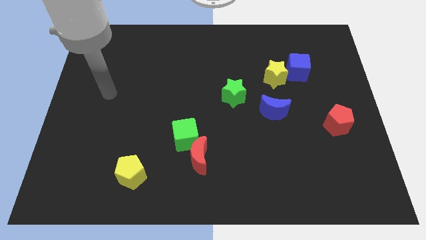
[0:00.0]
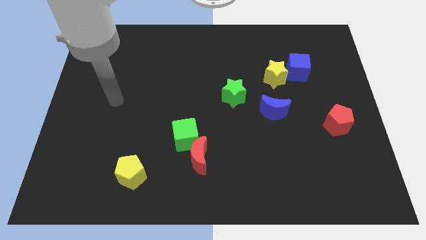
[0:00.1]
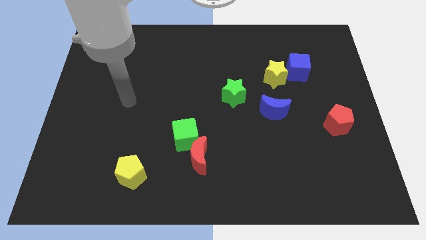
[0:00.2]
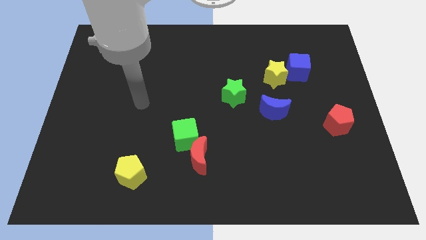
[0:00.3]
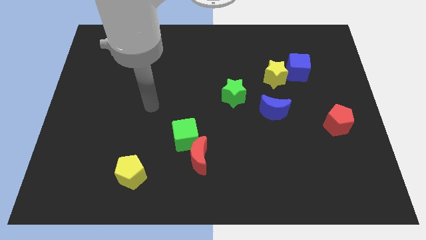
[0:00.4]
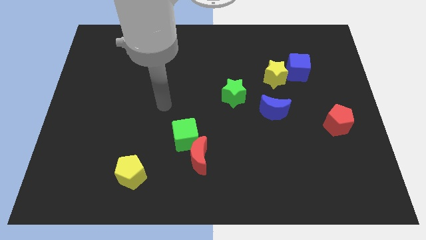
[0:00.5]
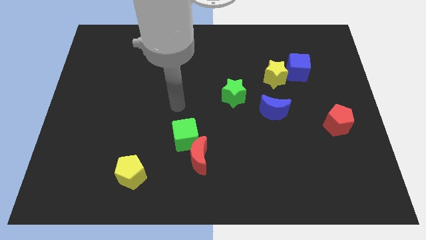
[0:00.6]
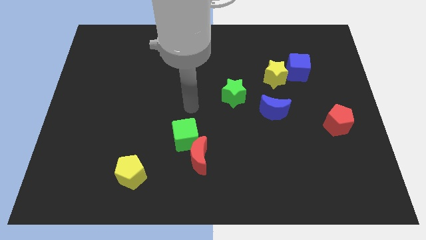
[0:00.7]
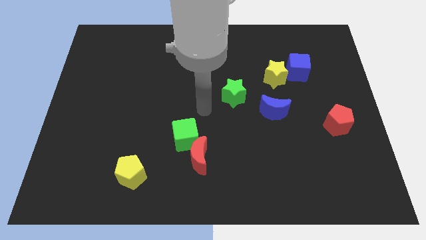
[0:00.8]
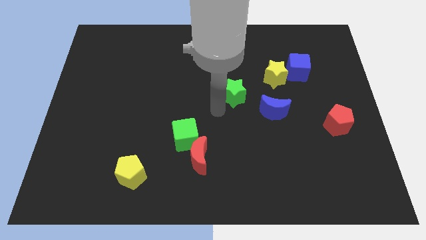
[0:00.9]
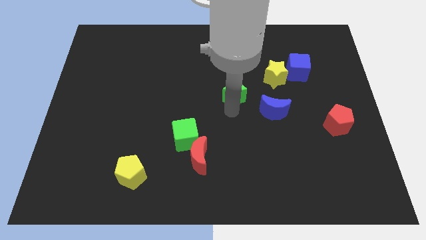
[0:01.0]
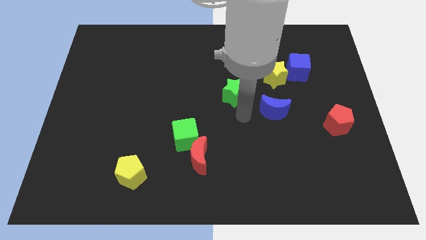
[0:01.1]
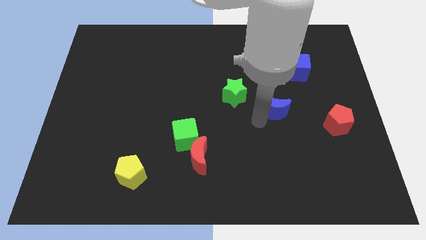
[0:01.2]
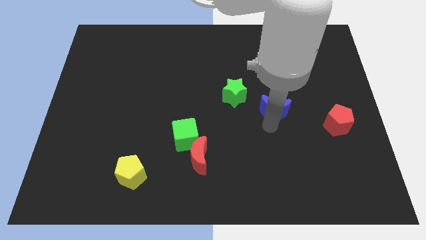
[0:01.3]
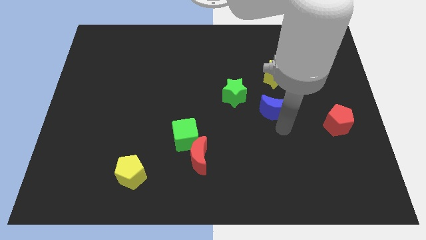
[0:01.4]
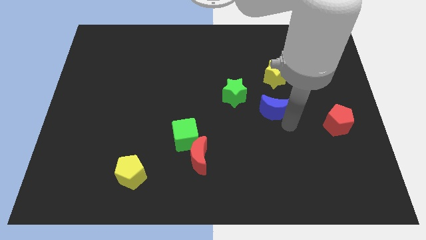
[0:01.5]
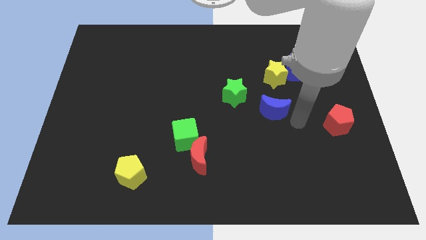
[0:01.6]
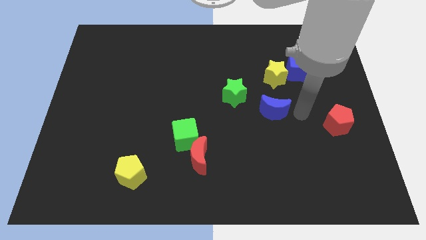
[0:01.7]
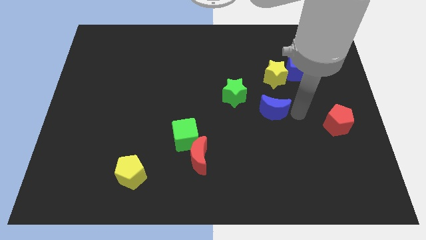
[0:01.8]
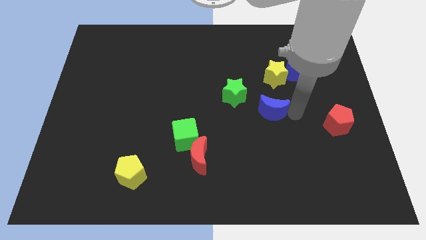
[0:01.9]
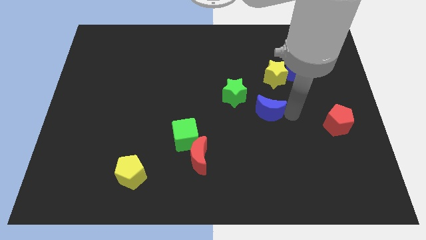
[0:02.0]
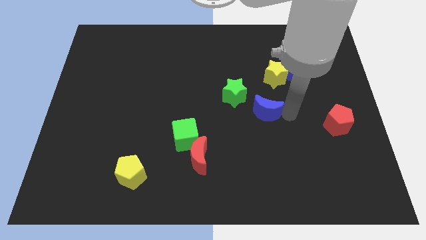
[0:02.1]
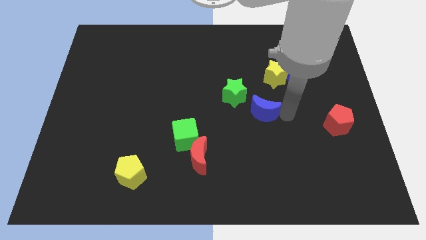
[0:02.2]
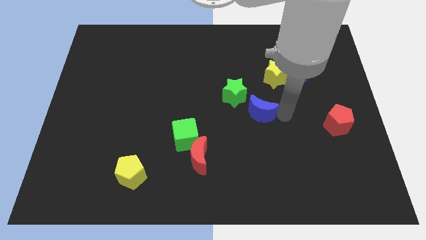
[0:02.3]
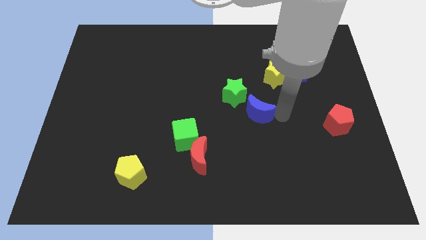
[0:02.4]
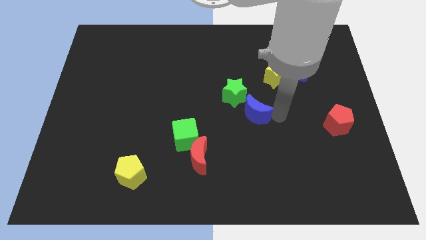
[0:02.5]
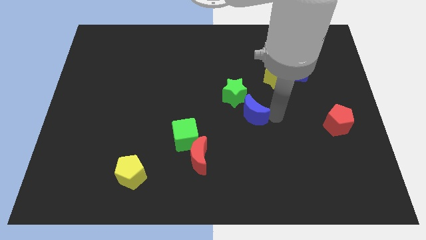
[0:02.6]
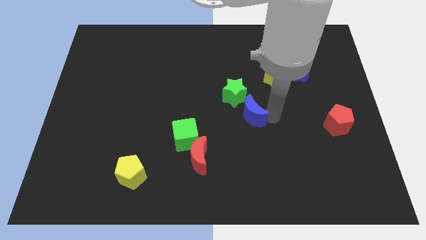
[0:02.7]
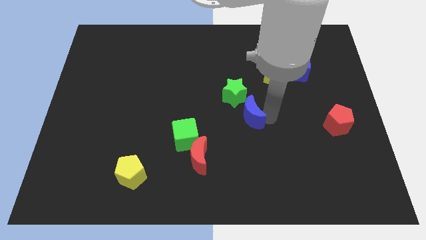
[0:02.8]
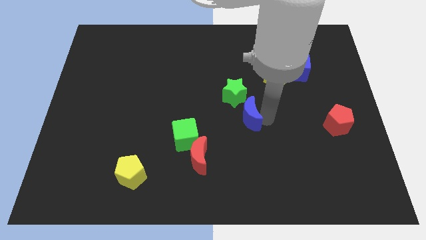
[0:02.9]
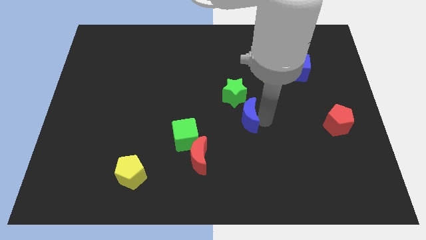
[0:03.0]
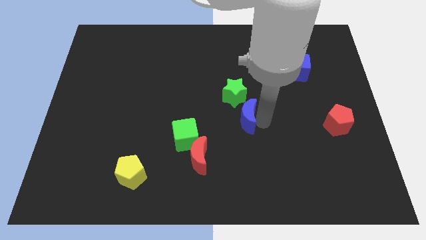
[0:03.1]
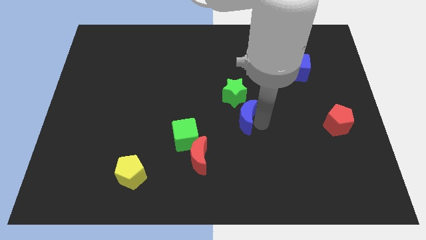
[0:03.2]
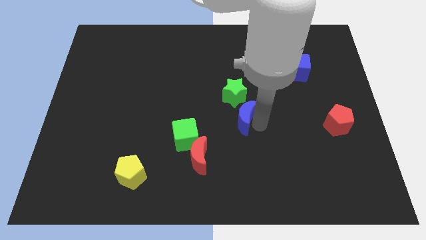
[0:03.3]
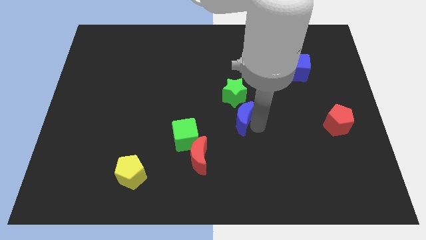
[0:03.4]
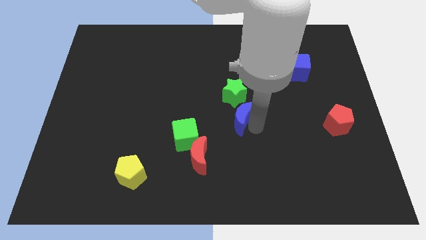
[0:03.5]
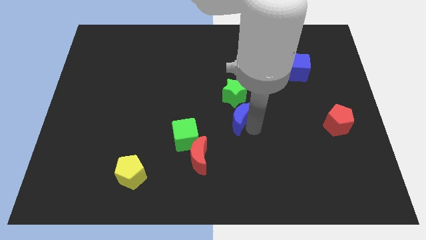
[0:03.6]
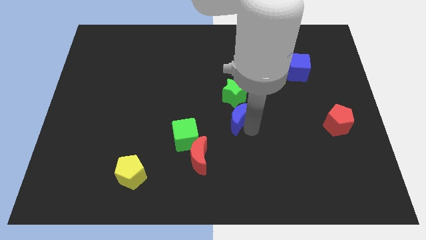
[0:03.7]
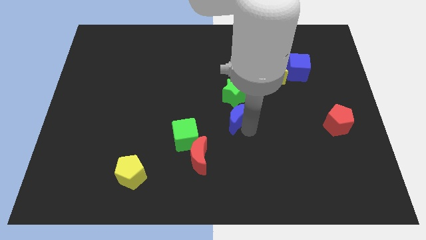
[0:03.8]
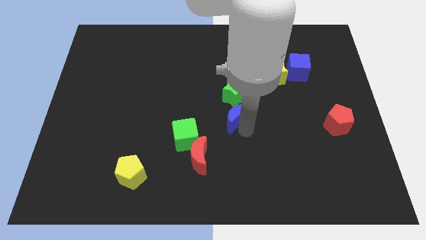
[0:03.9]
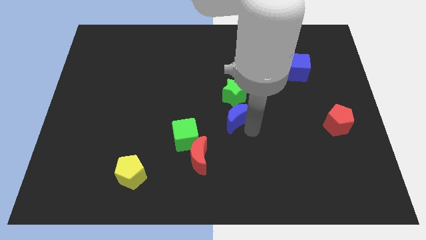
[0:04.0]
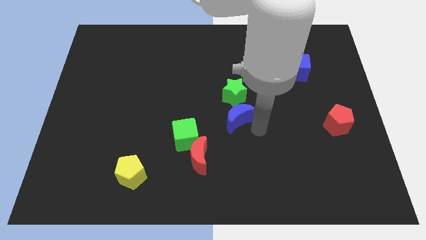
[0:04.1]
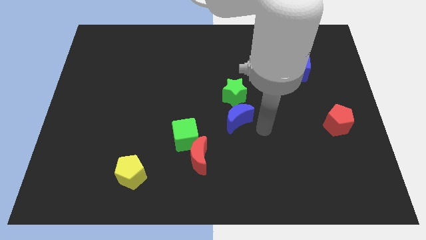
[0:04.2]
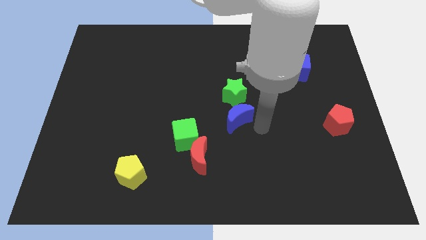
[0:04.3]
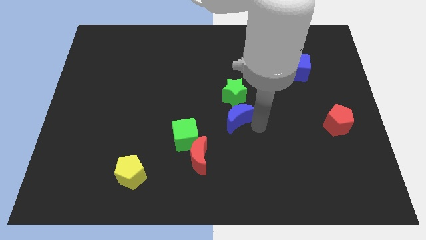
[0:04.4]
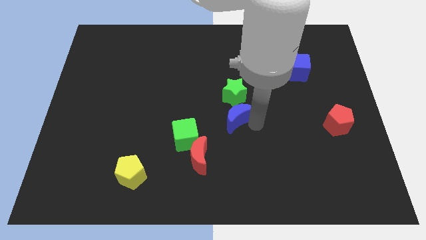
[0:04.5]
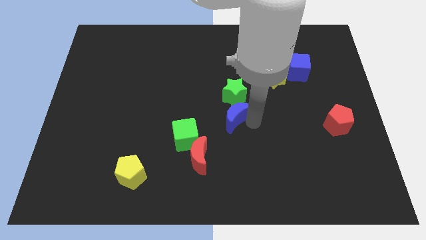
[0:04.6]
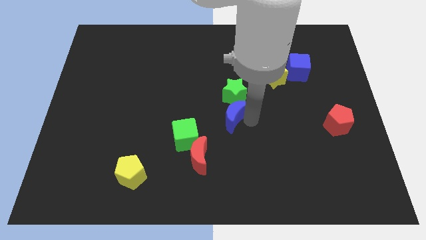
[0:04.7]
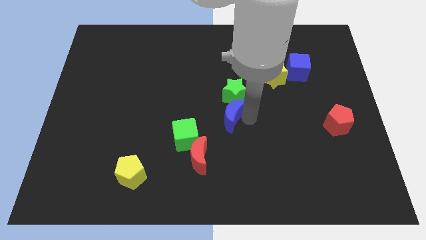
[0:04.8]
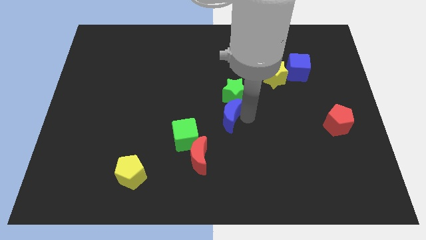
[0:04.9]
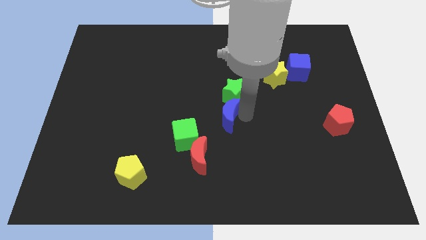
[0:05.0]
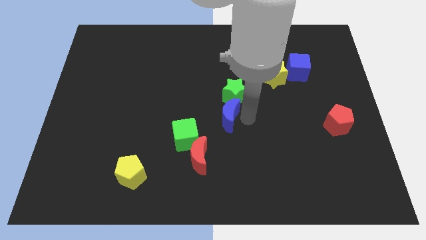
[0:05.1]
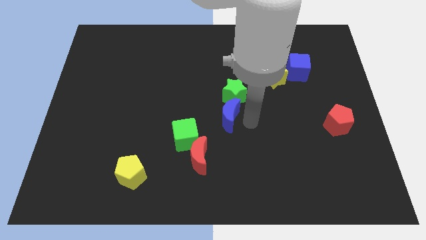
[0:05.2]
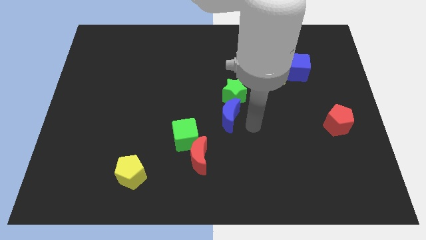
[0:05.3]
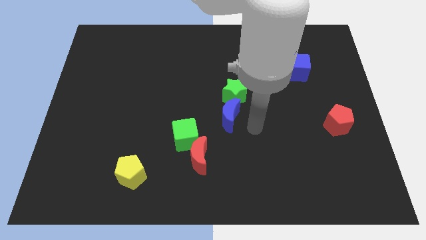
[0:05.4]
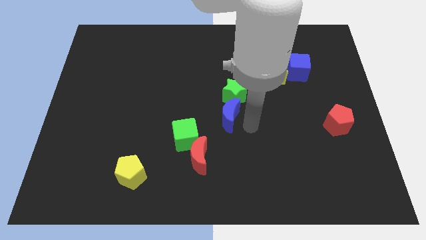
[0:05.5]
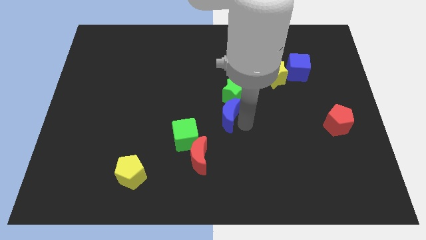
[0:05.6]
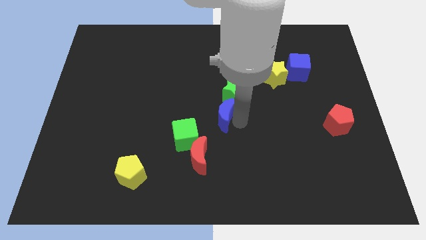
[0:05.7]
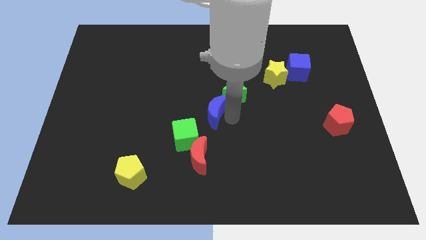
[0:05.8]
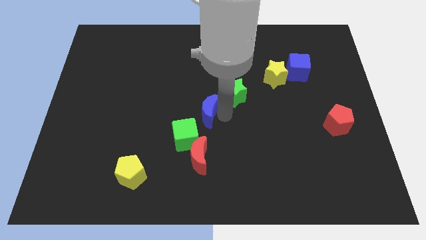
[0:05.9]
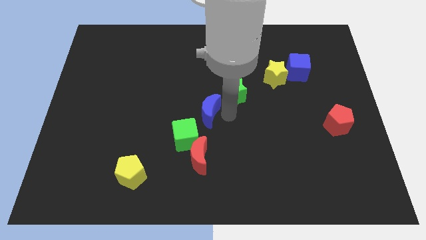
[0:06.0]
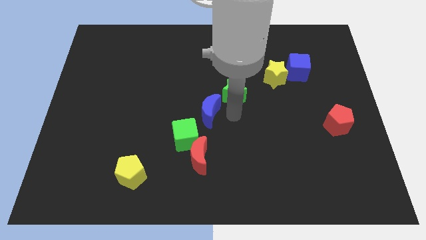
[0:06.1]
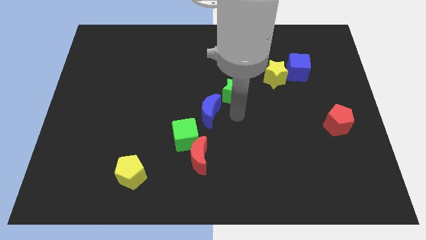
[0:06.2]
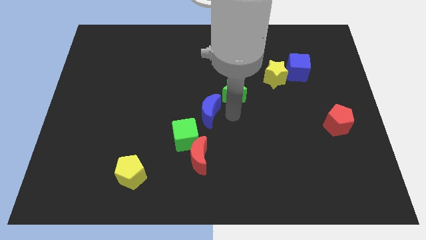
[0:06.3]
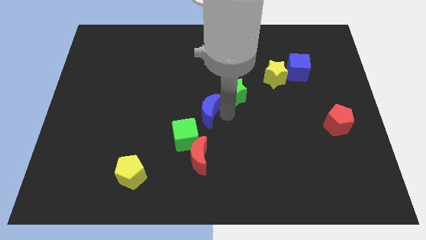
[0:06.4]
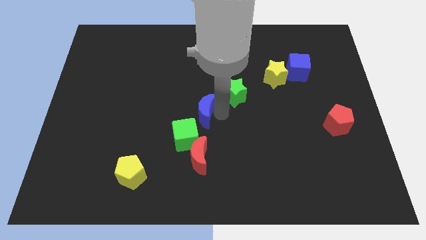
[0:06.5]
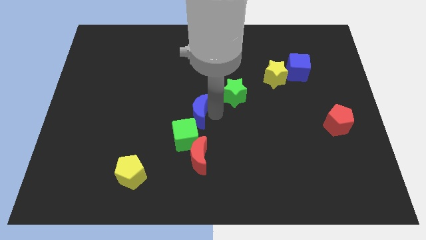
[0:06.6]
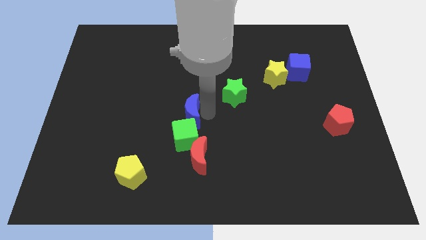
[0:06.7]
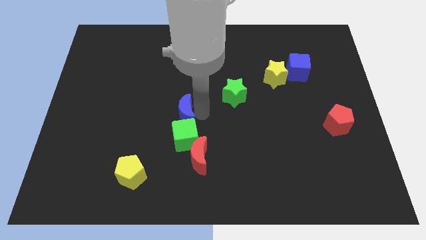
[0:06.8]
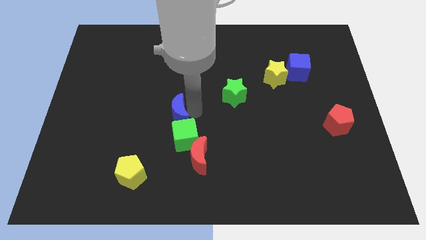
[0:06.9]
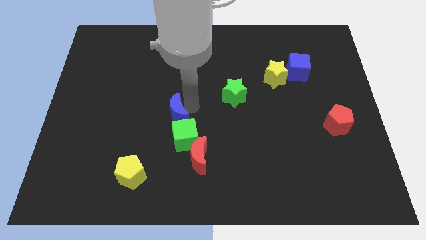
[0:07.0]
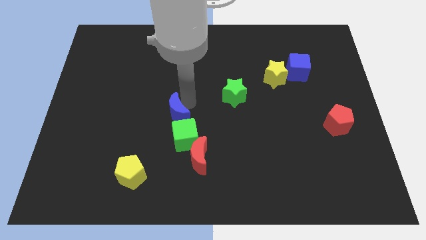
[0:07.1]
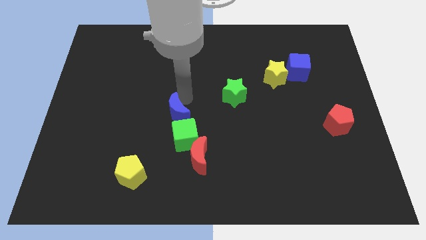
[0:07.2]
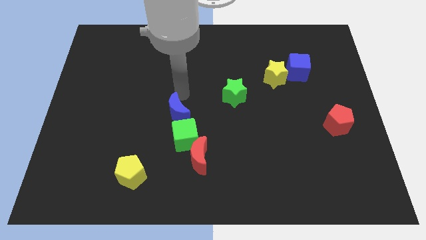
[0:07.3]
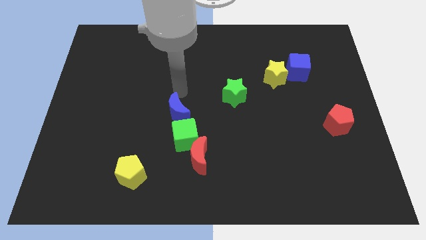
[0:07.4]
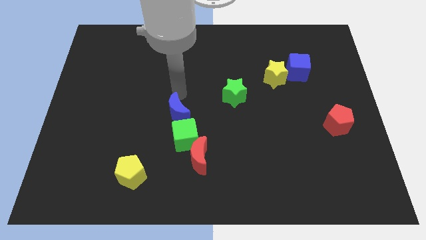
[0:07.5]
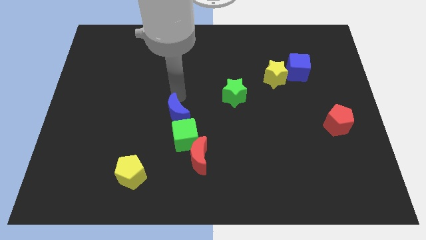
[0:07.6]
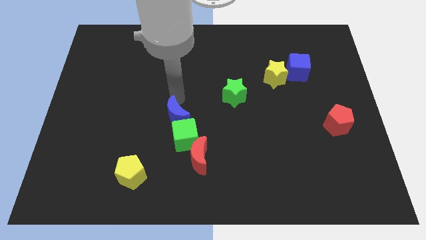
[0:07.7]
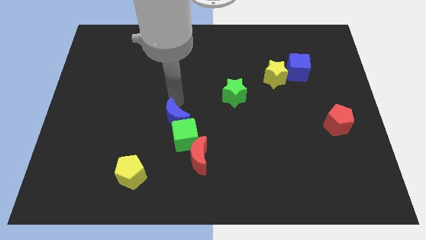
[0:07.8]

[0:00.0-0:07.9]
move the blue moon to the top left side of the red moon
